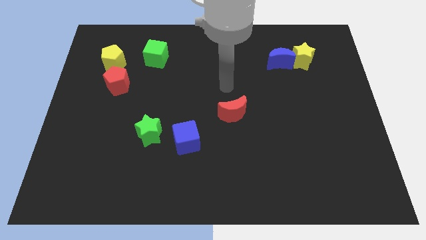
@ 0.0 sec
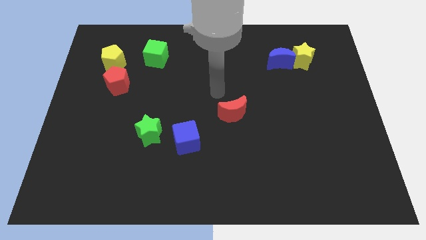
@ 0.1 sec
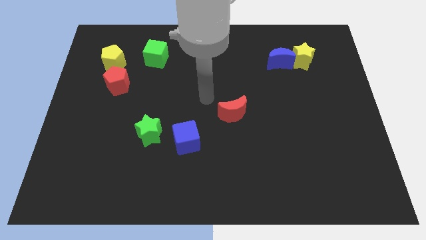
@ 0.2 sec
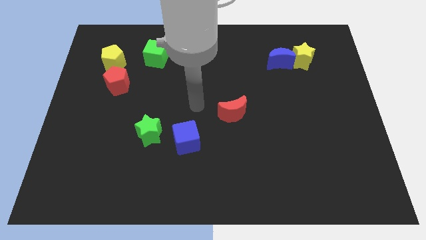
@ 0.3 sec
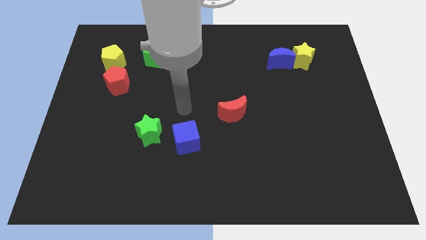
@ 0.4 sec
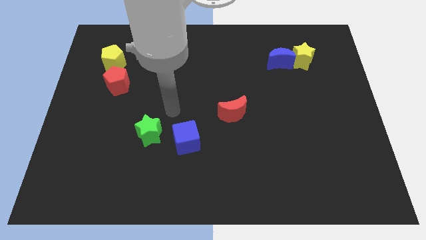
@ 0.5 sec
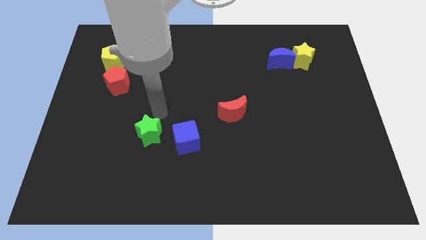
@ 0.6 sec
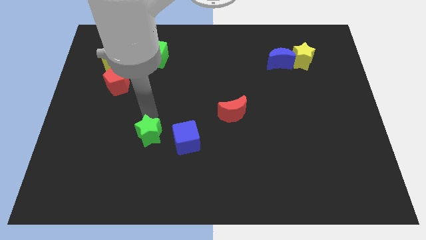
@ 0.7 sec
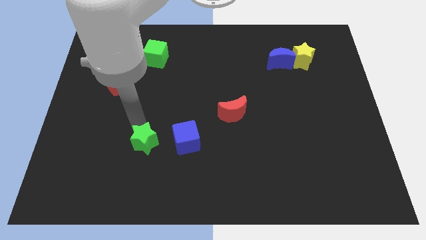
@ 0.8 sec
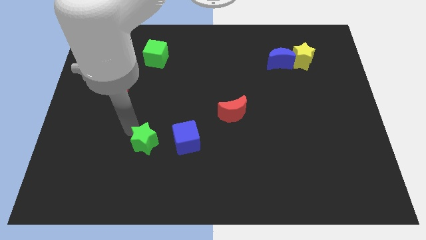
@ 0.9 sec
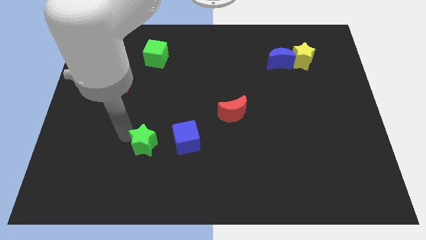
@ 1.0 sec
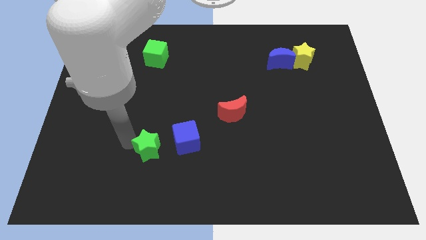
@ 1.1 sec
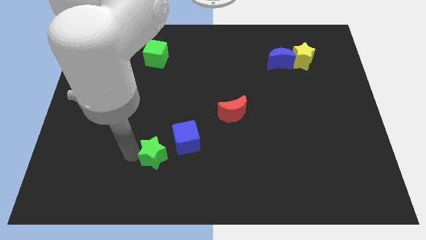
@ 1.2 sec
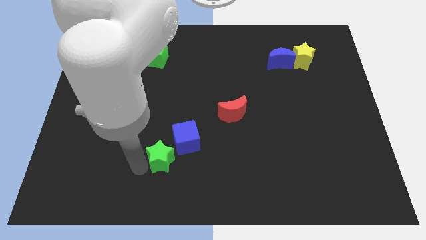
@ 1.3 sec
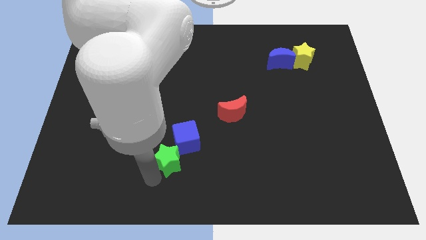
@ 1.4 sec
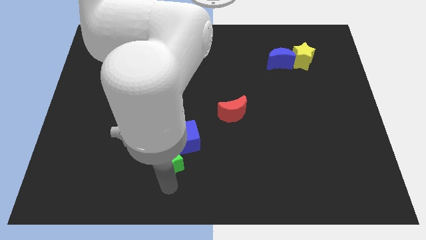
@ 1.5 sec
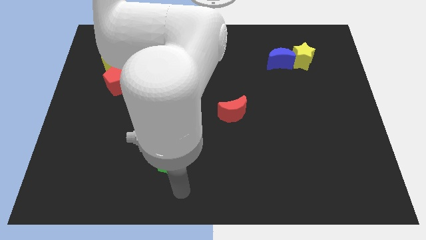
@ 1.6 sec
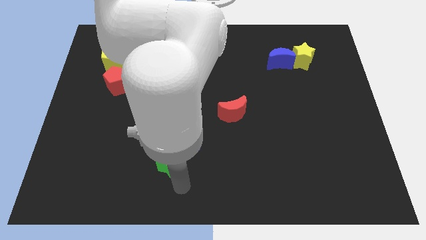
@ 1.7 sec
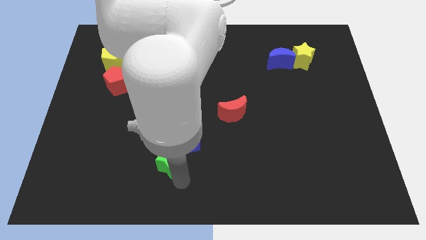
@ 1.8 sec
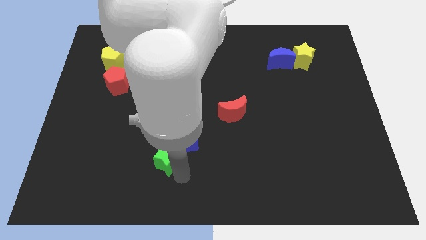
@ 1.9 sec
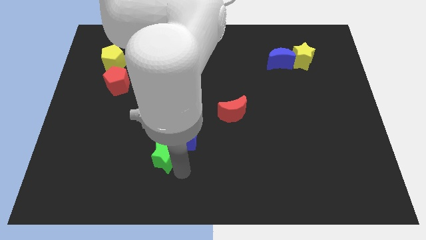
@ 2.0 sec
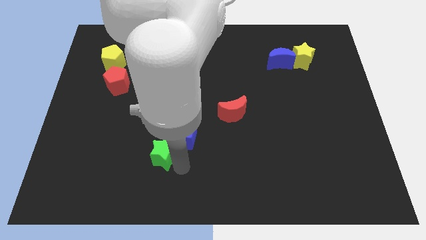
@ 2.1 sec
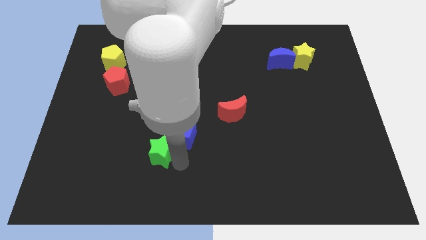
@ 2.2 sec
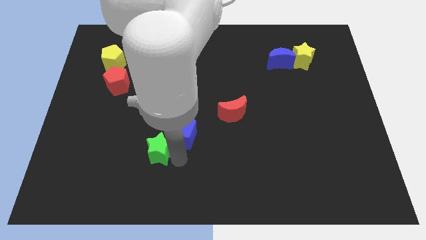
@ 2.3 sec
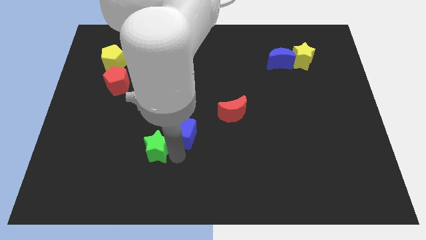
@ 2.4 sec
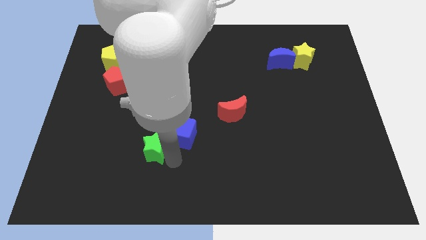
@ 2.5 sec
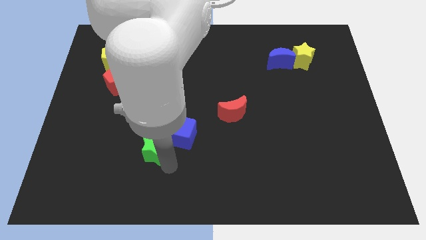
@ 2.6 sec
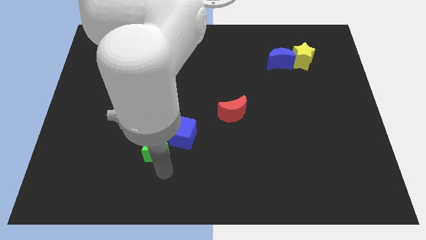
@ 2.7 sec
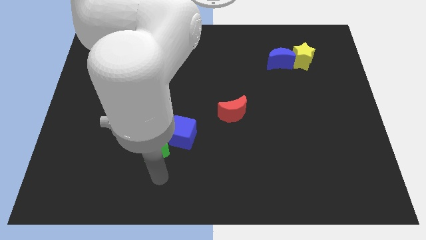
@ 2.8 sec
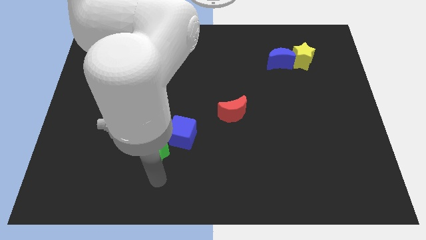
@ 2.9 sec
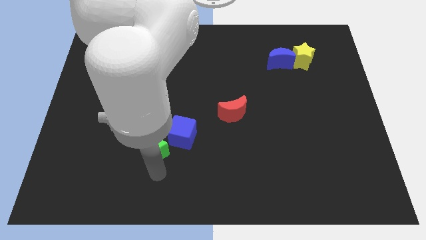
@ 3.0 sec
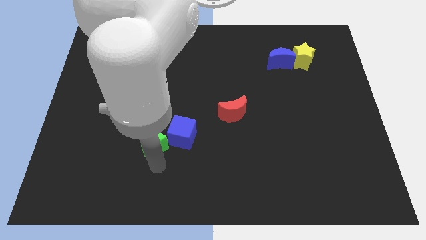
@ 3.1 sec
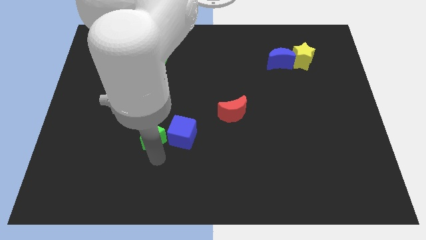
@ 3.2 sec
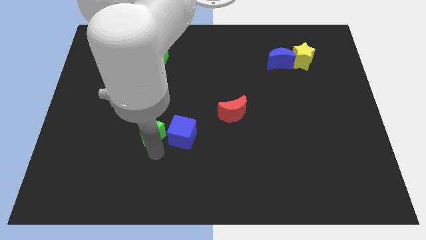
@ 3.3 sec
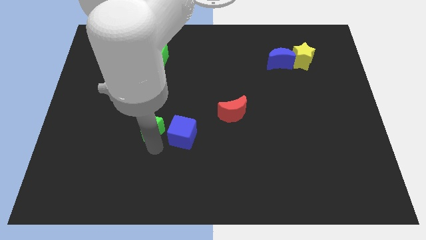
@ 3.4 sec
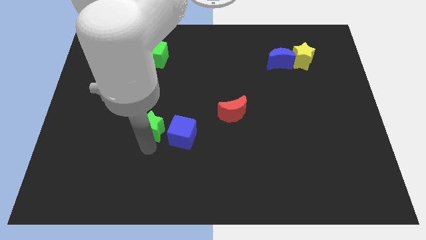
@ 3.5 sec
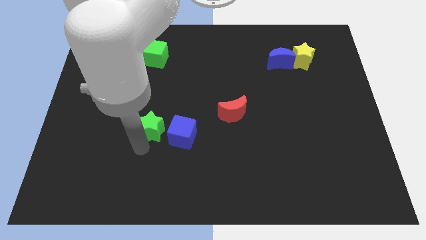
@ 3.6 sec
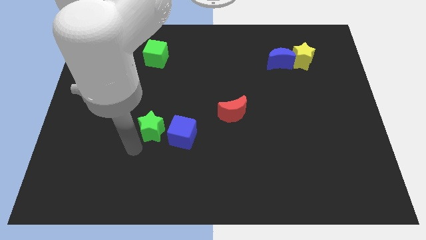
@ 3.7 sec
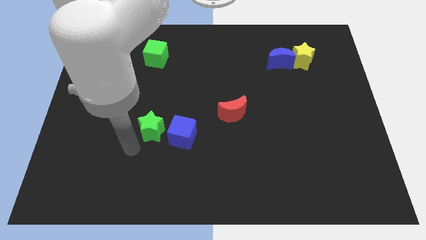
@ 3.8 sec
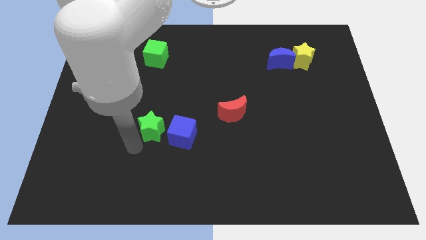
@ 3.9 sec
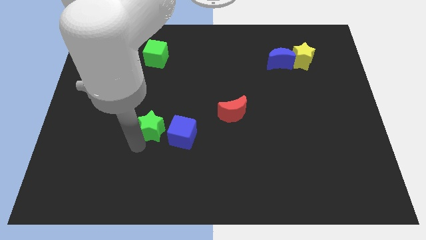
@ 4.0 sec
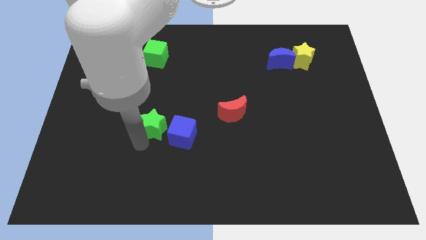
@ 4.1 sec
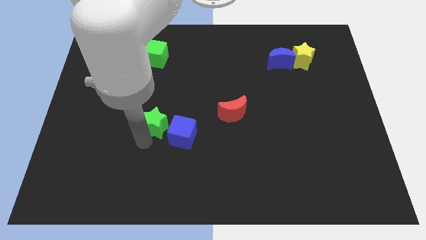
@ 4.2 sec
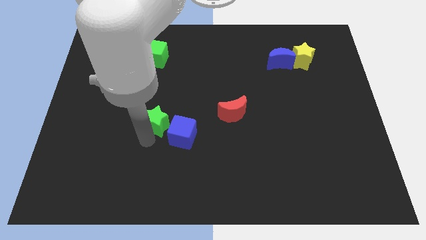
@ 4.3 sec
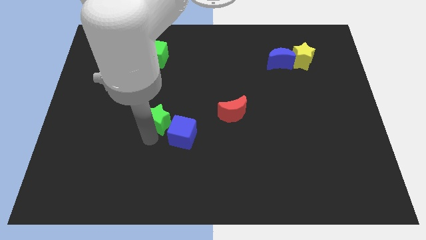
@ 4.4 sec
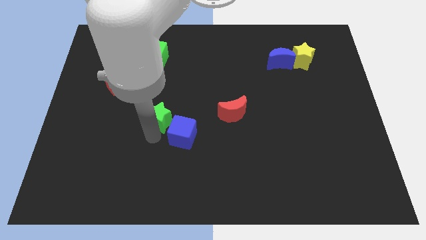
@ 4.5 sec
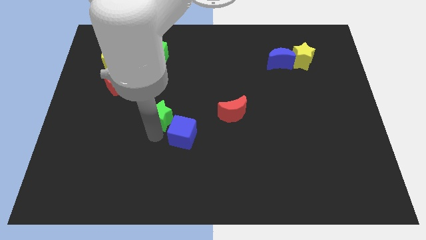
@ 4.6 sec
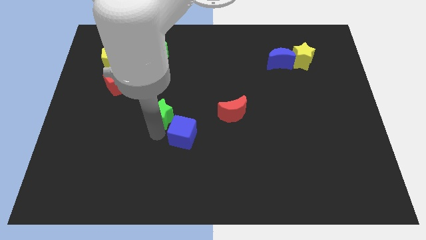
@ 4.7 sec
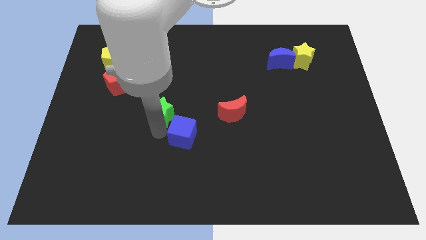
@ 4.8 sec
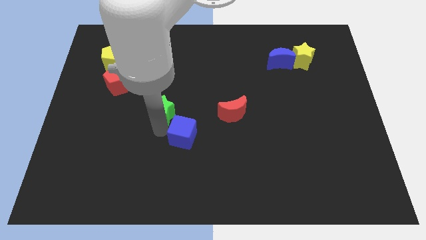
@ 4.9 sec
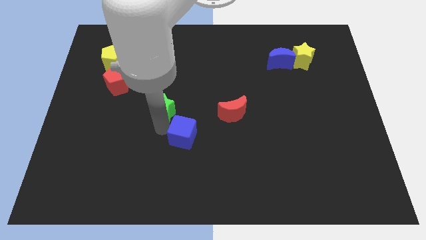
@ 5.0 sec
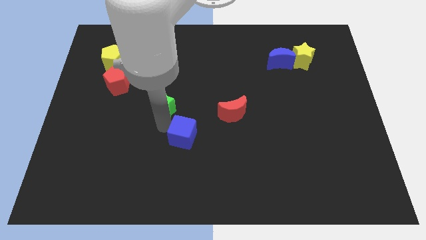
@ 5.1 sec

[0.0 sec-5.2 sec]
push the green star slightly diagonally up and right

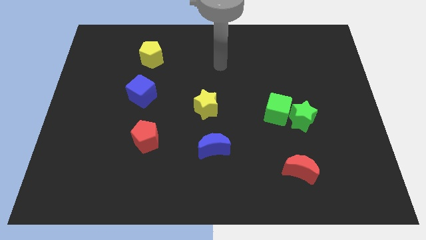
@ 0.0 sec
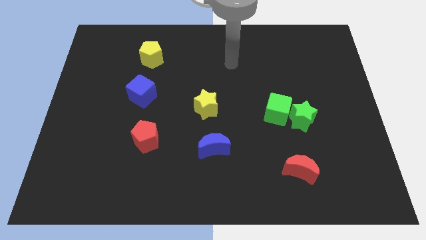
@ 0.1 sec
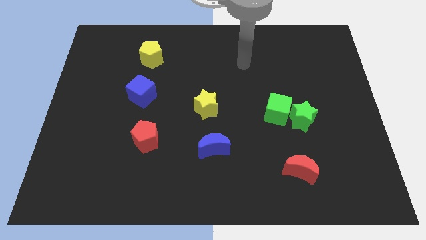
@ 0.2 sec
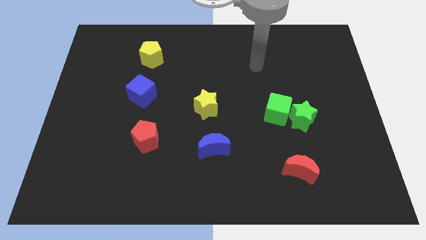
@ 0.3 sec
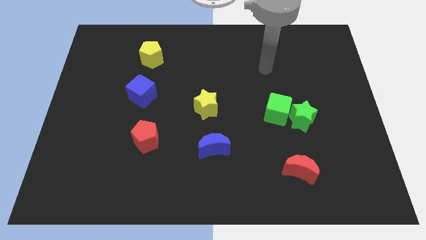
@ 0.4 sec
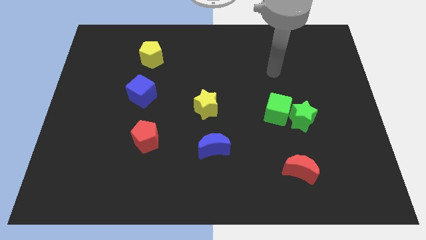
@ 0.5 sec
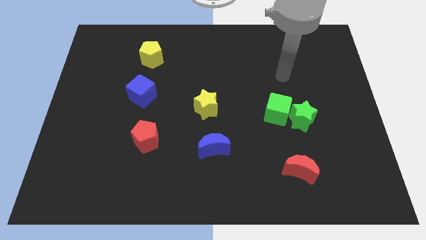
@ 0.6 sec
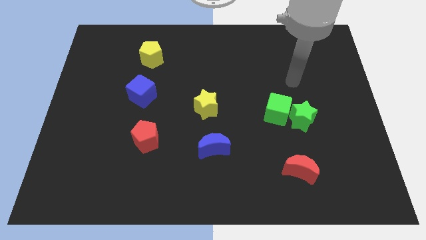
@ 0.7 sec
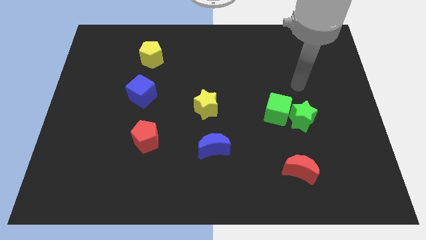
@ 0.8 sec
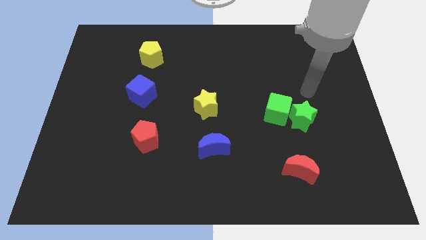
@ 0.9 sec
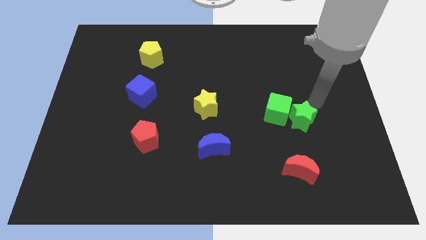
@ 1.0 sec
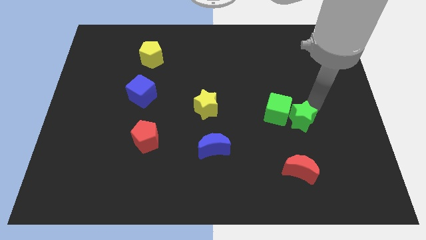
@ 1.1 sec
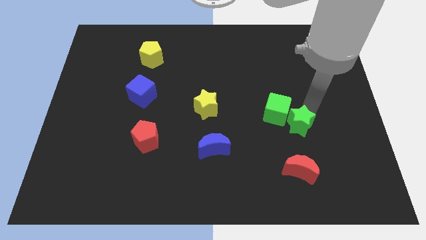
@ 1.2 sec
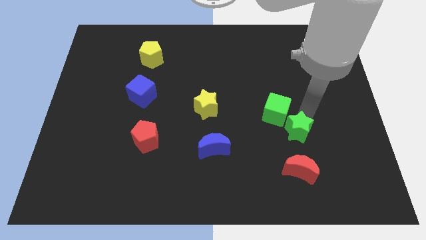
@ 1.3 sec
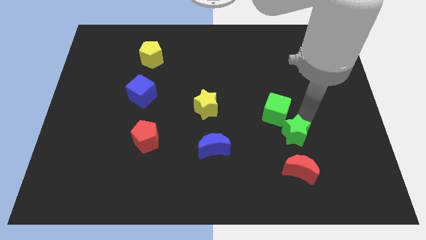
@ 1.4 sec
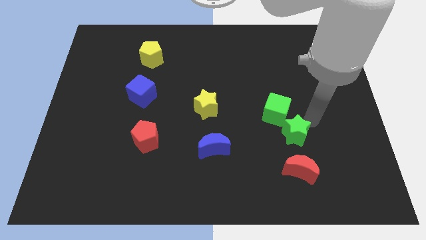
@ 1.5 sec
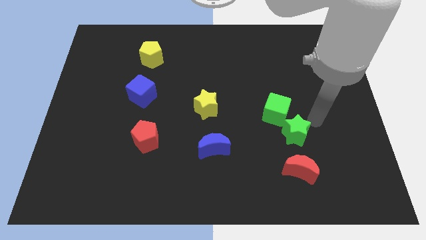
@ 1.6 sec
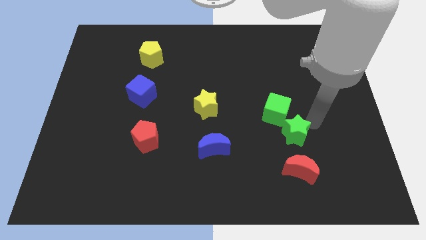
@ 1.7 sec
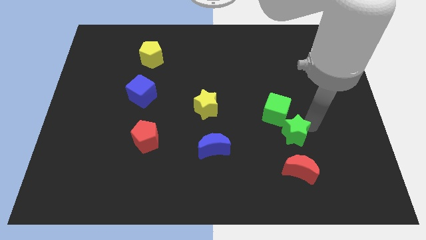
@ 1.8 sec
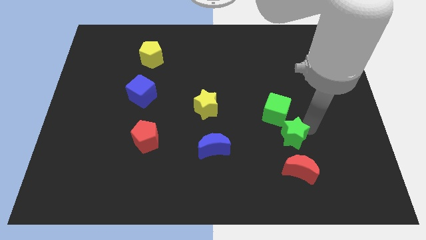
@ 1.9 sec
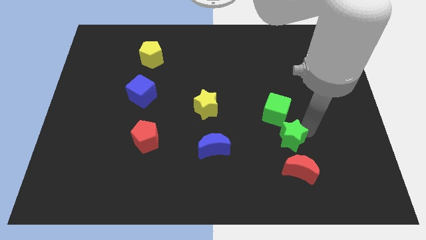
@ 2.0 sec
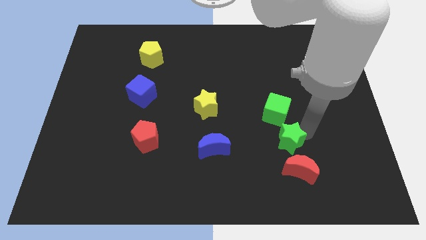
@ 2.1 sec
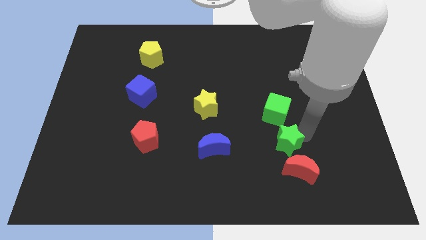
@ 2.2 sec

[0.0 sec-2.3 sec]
move the green star downwards and left diagonally somewhat

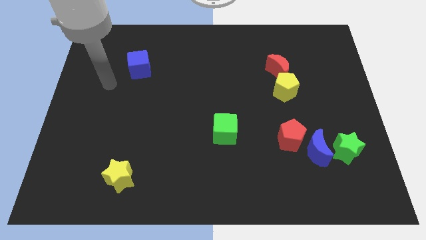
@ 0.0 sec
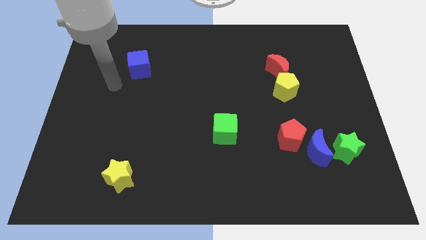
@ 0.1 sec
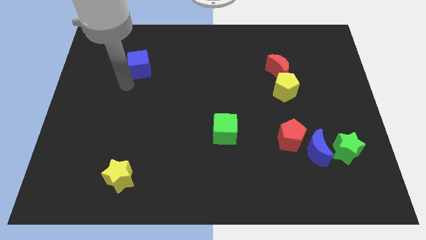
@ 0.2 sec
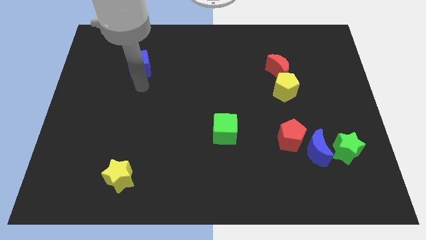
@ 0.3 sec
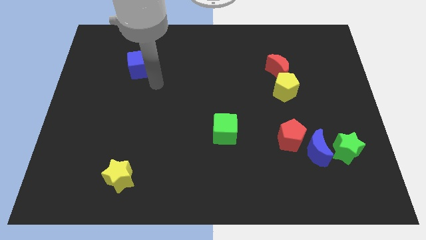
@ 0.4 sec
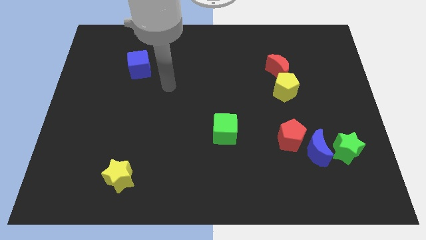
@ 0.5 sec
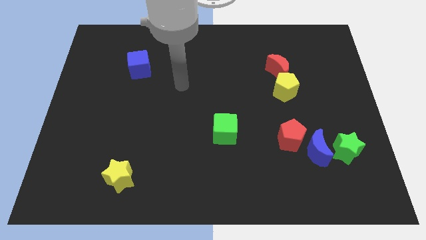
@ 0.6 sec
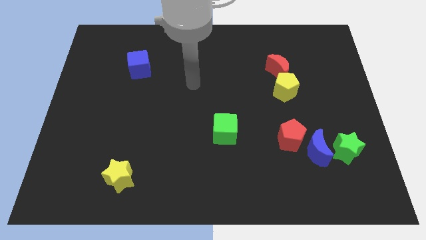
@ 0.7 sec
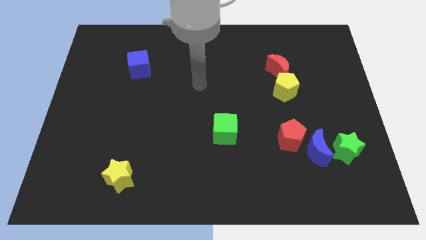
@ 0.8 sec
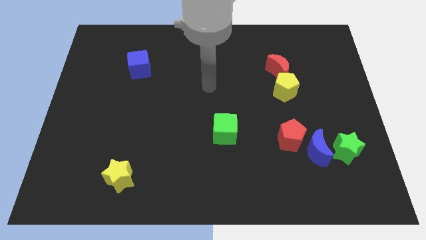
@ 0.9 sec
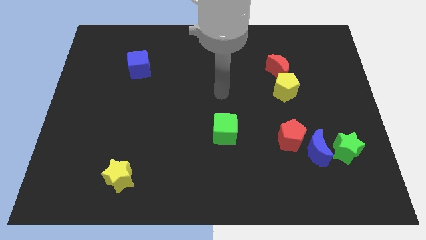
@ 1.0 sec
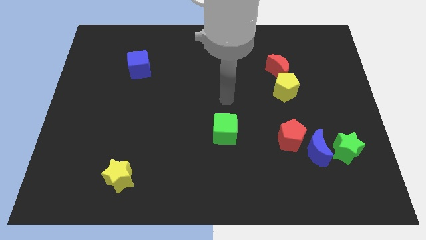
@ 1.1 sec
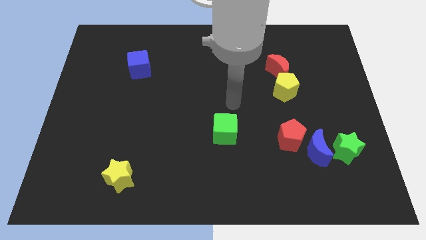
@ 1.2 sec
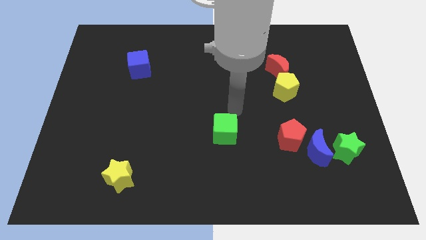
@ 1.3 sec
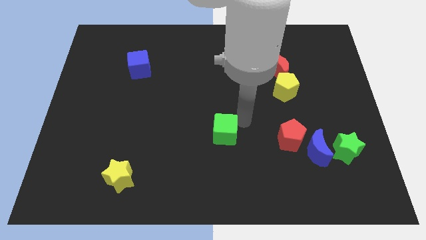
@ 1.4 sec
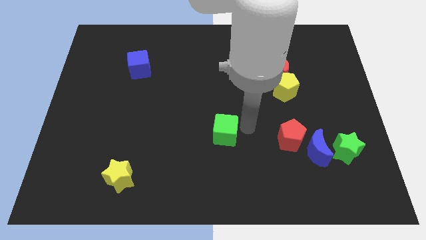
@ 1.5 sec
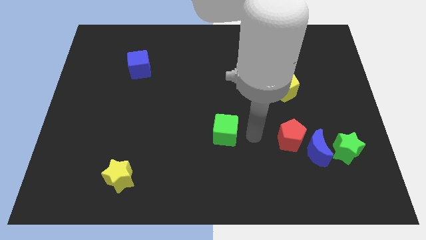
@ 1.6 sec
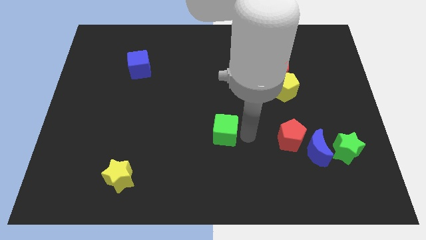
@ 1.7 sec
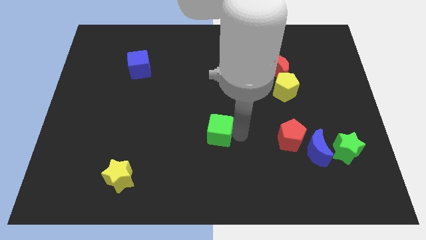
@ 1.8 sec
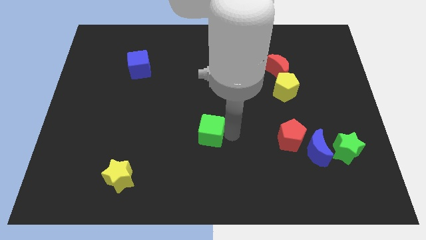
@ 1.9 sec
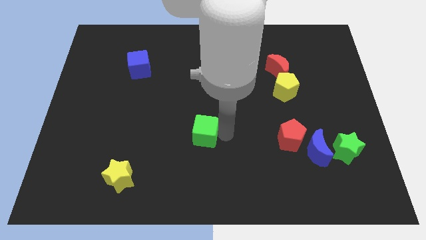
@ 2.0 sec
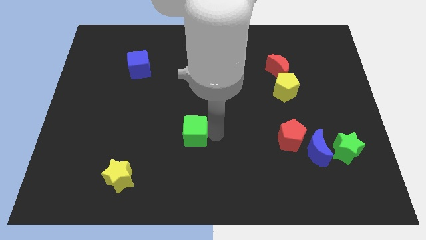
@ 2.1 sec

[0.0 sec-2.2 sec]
slightly move the green cube left
